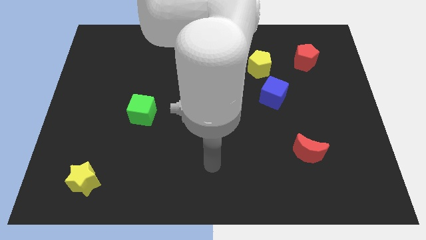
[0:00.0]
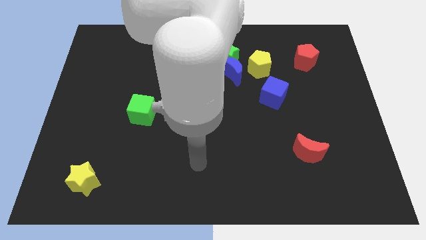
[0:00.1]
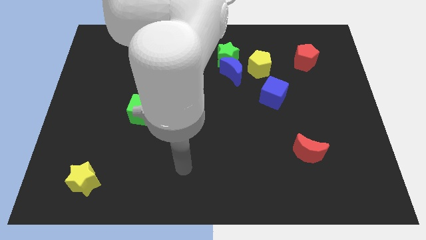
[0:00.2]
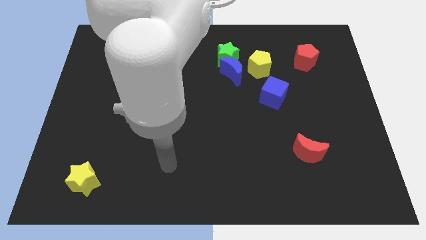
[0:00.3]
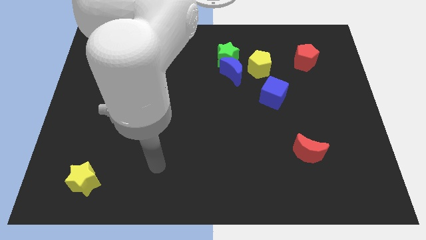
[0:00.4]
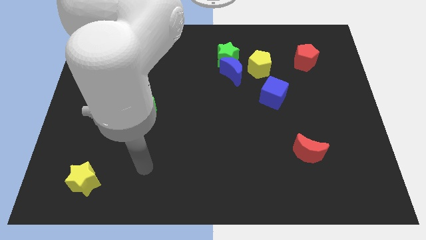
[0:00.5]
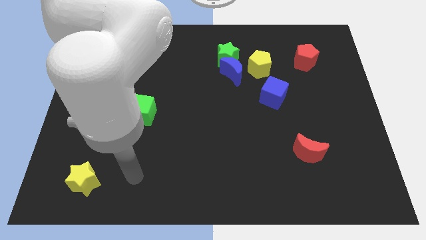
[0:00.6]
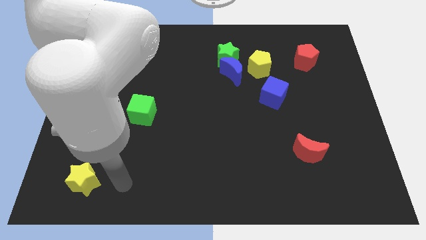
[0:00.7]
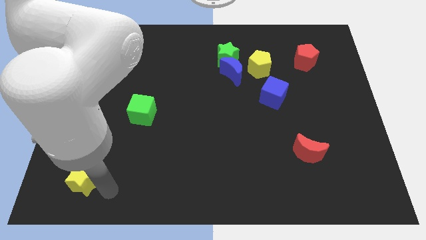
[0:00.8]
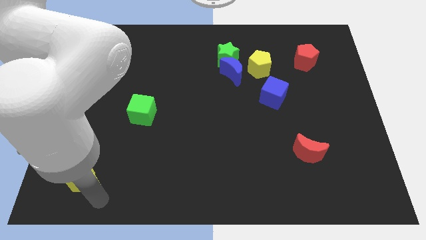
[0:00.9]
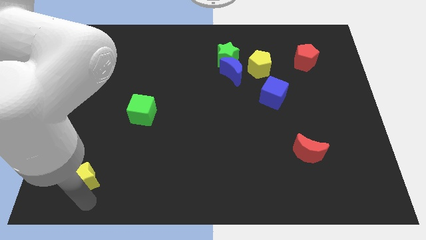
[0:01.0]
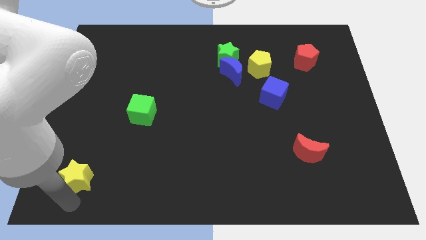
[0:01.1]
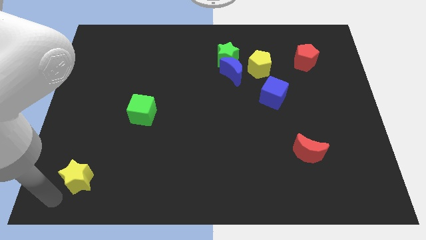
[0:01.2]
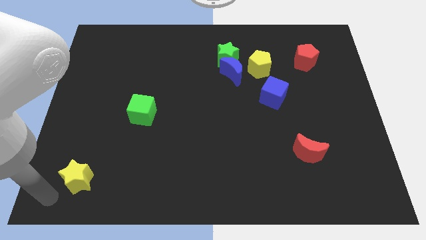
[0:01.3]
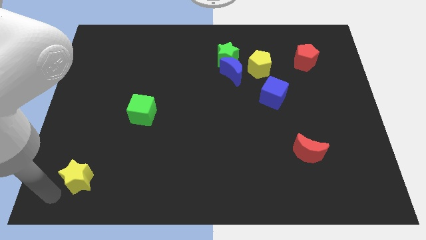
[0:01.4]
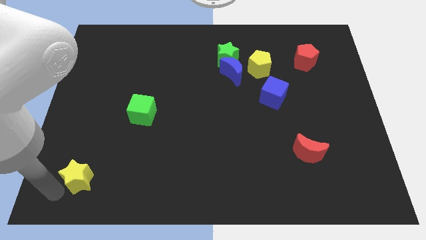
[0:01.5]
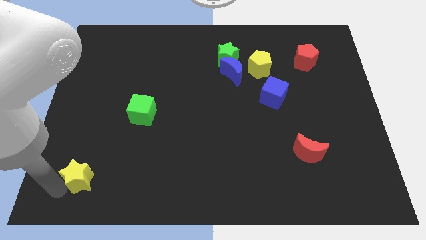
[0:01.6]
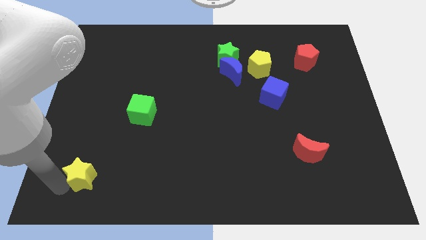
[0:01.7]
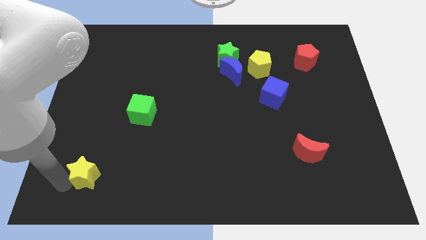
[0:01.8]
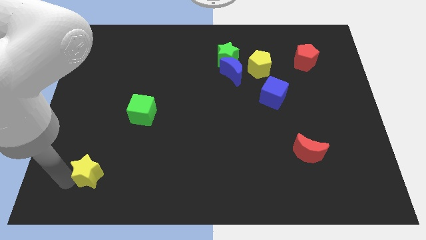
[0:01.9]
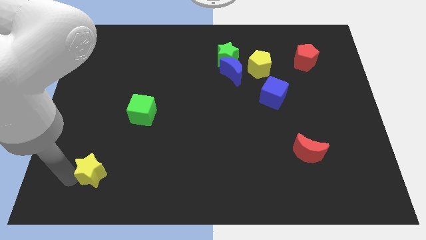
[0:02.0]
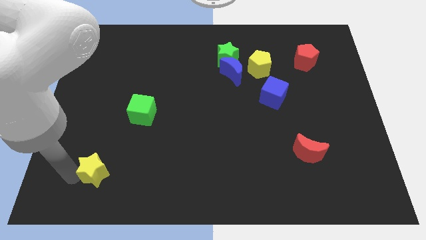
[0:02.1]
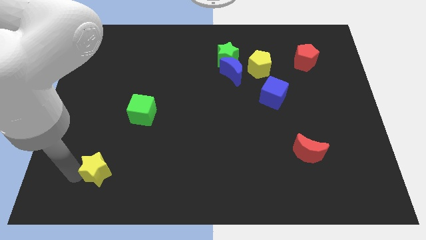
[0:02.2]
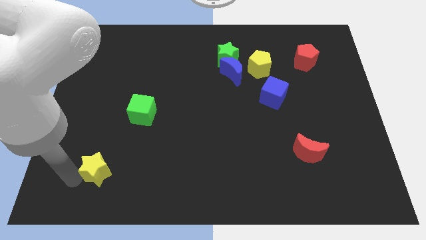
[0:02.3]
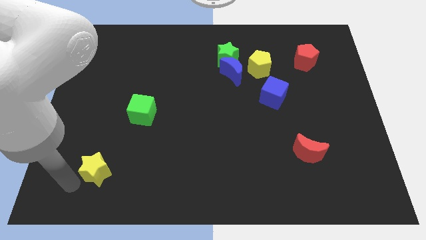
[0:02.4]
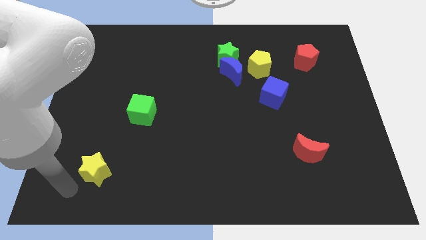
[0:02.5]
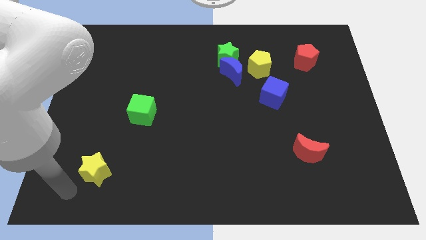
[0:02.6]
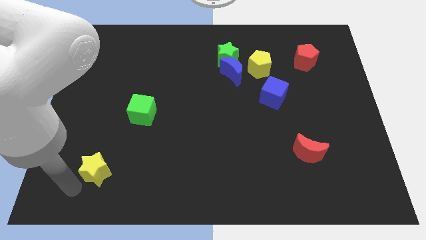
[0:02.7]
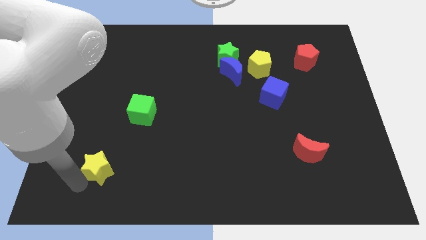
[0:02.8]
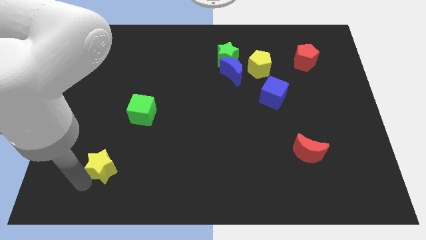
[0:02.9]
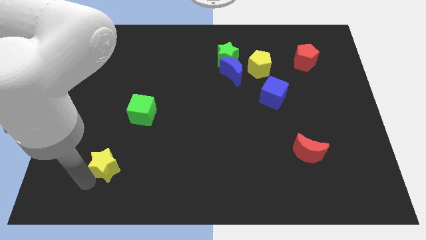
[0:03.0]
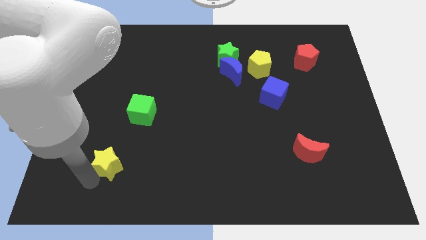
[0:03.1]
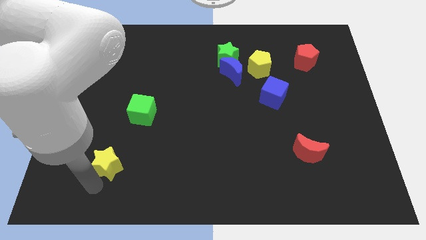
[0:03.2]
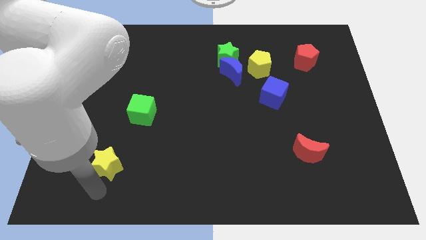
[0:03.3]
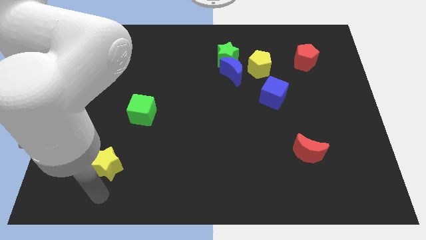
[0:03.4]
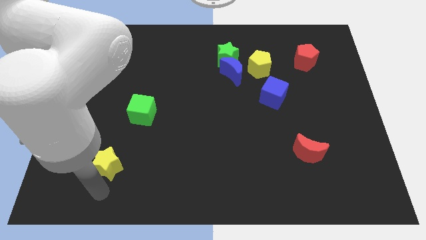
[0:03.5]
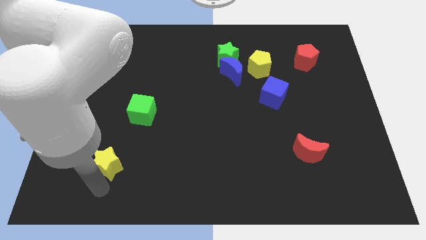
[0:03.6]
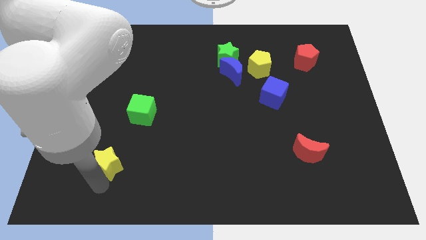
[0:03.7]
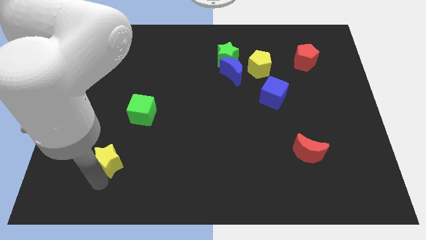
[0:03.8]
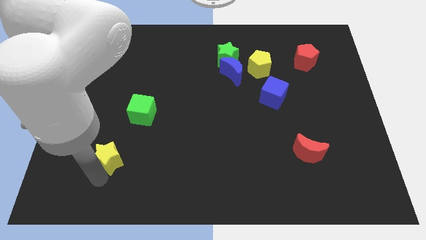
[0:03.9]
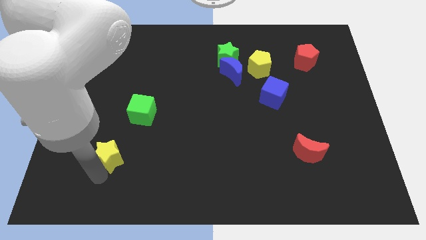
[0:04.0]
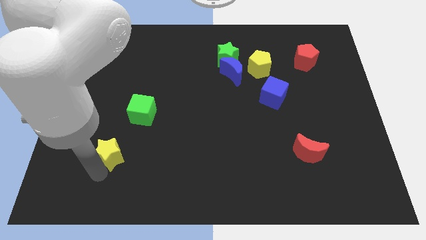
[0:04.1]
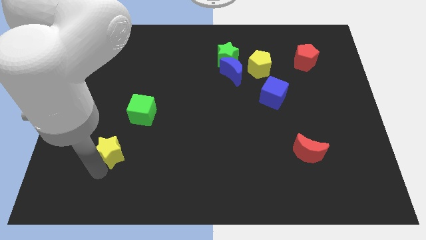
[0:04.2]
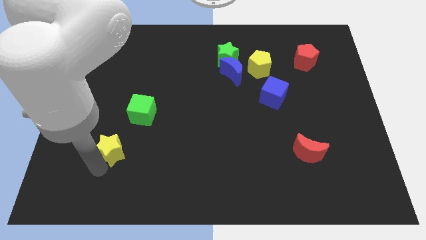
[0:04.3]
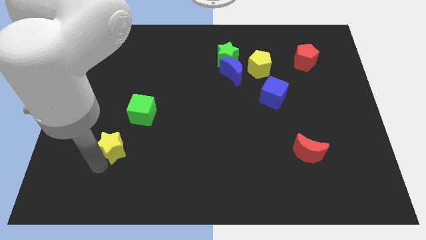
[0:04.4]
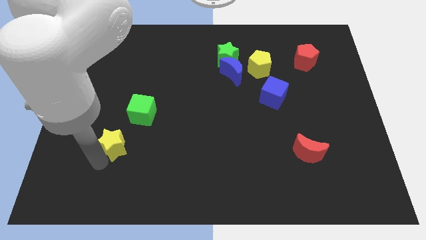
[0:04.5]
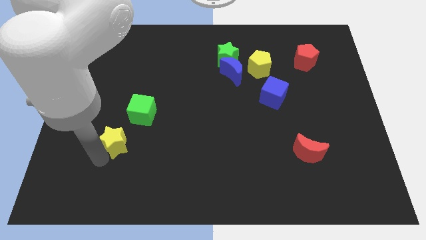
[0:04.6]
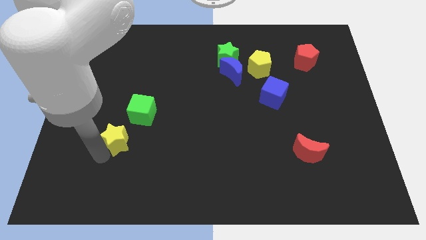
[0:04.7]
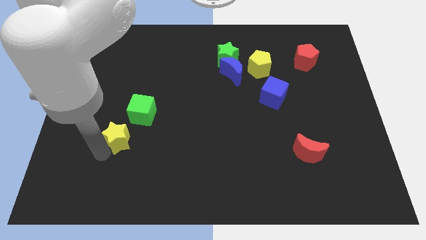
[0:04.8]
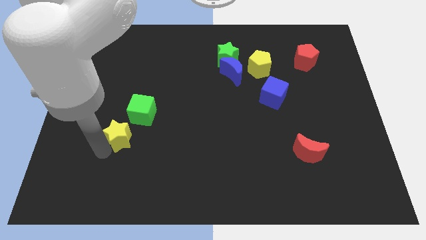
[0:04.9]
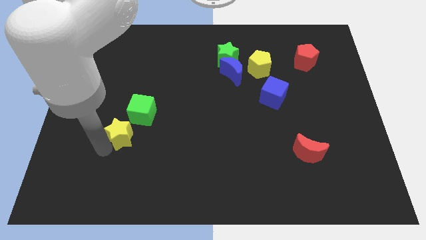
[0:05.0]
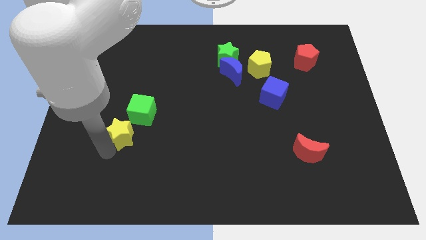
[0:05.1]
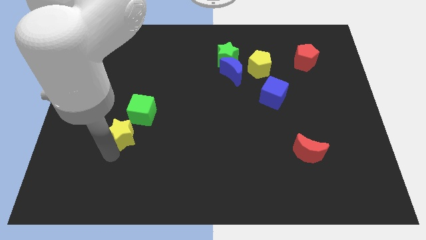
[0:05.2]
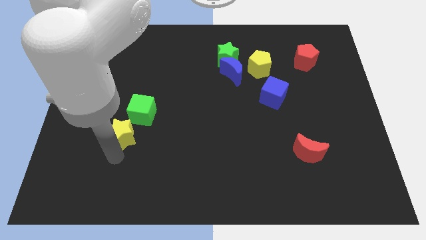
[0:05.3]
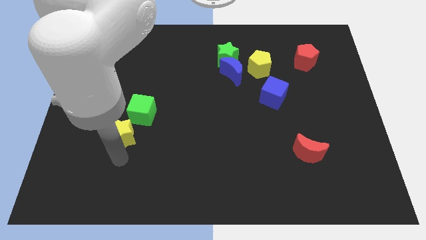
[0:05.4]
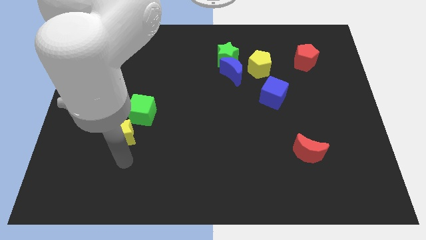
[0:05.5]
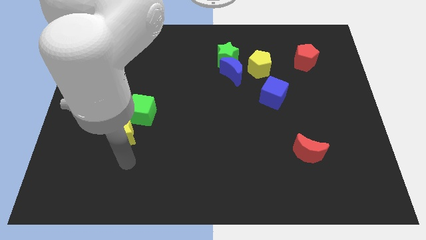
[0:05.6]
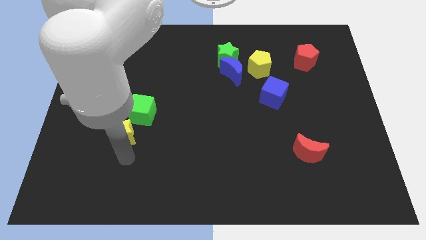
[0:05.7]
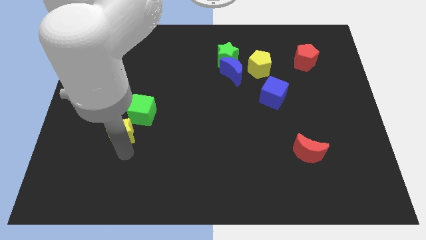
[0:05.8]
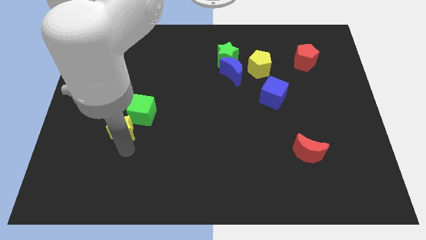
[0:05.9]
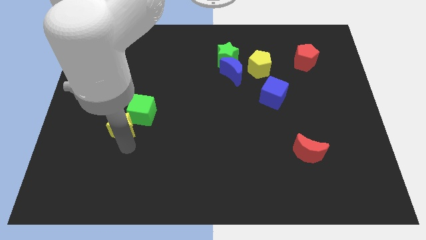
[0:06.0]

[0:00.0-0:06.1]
move the yellow star to the green cube

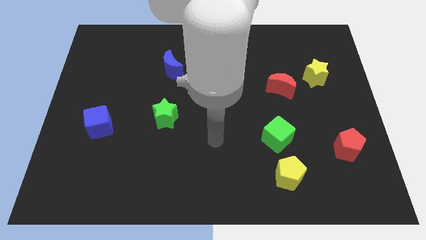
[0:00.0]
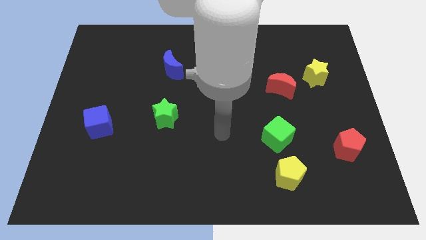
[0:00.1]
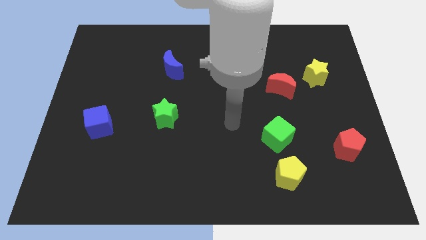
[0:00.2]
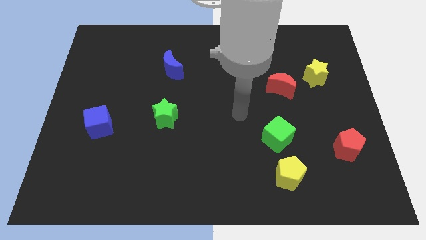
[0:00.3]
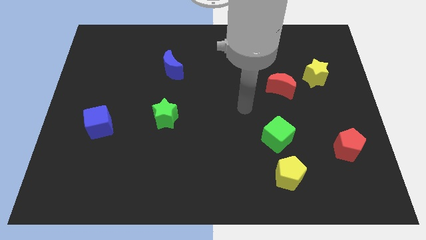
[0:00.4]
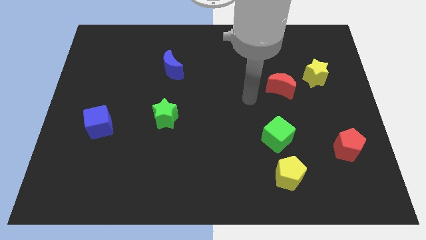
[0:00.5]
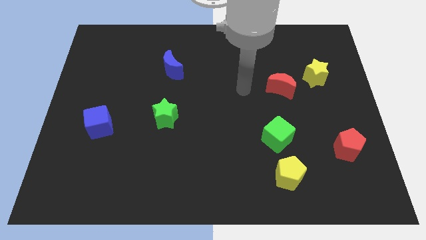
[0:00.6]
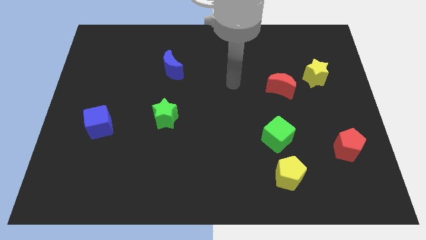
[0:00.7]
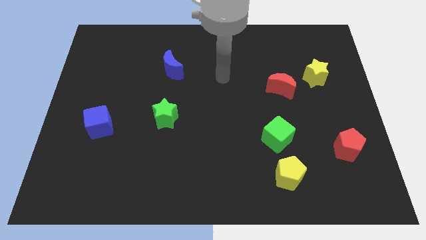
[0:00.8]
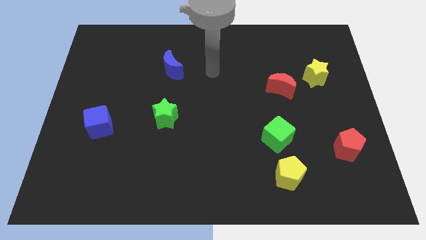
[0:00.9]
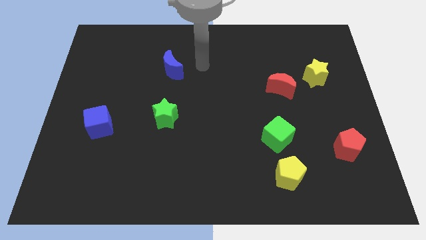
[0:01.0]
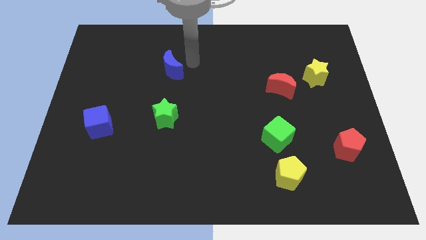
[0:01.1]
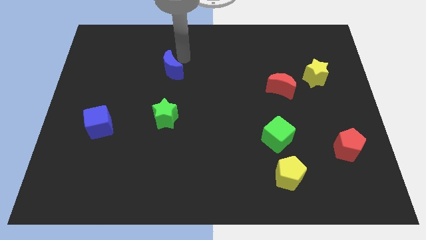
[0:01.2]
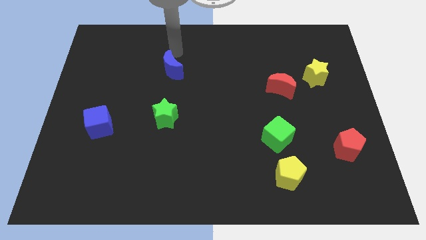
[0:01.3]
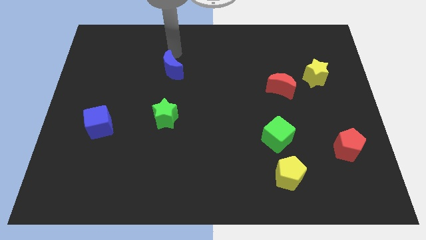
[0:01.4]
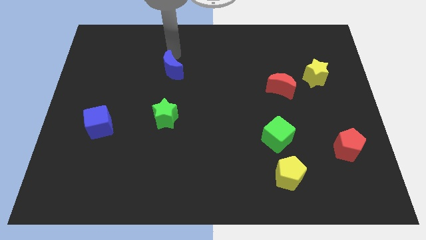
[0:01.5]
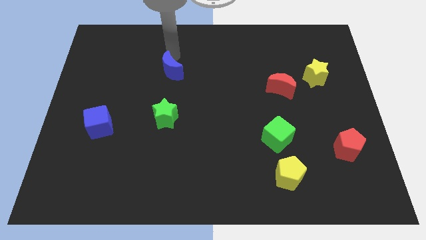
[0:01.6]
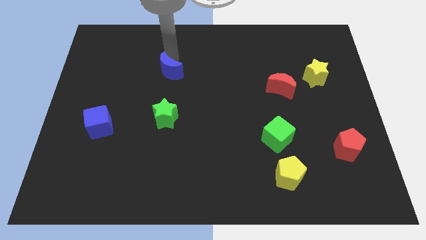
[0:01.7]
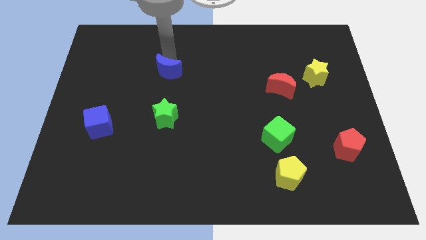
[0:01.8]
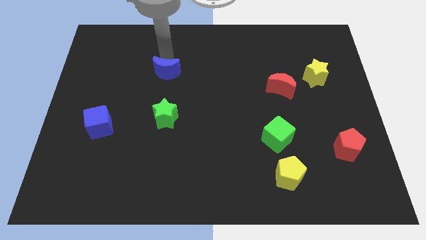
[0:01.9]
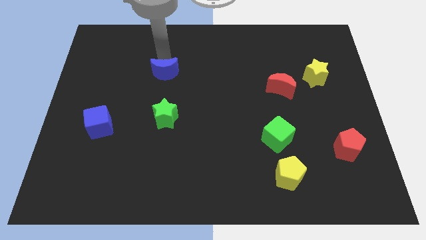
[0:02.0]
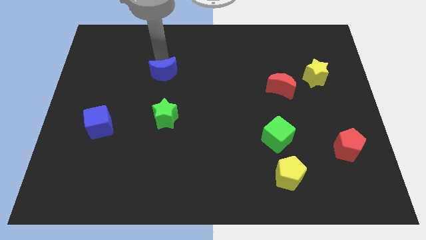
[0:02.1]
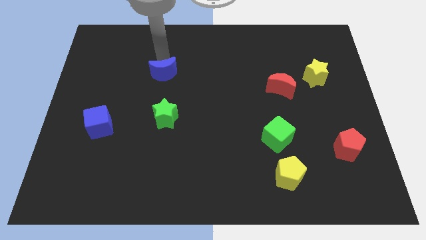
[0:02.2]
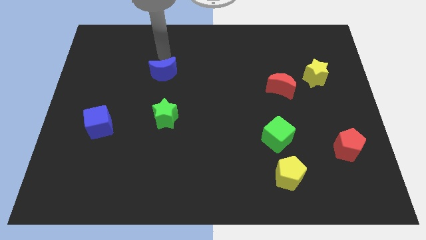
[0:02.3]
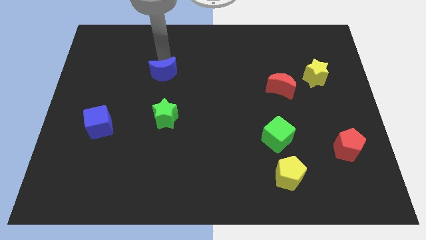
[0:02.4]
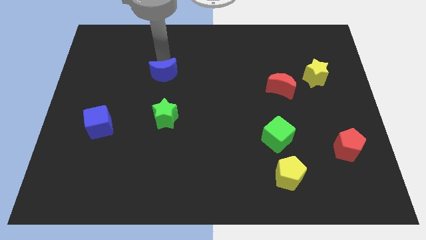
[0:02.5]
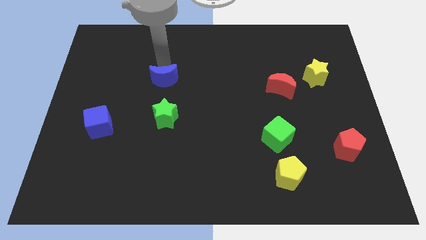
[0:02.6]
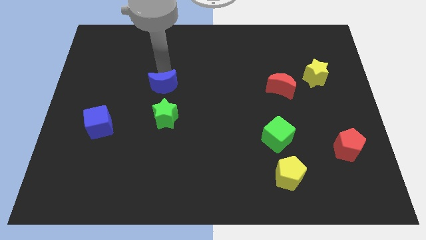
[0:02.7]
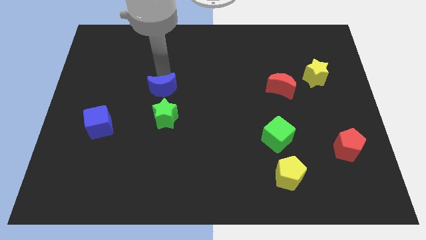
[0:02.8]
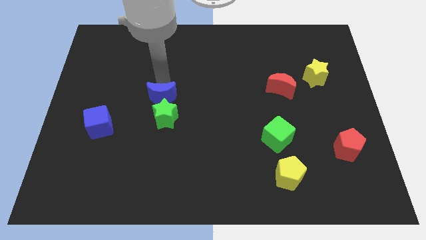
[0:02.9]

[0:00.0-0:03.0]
put the blue moon close to the green star
